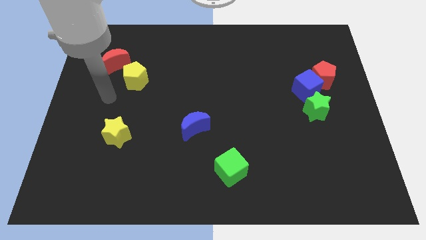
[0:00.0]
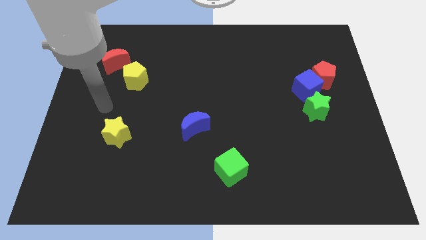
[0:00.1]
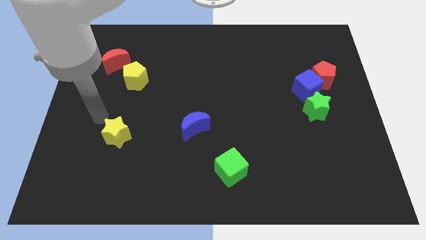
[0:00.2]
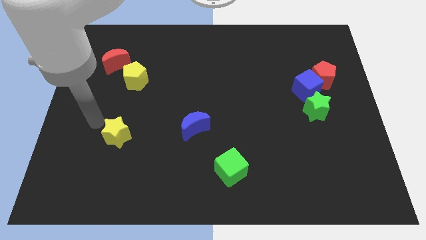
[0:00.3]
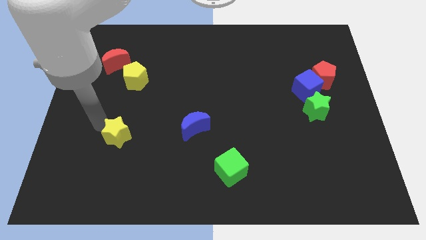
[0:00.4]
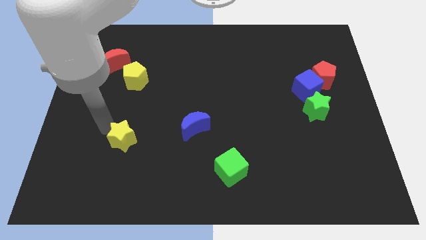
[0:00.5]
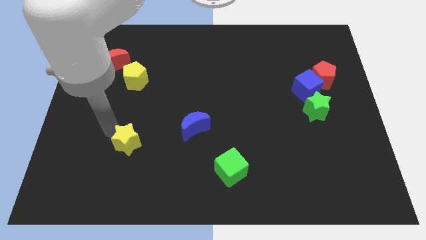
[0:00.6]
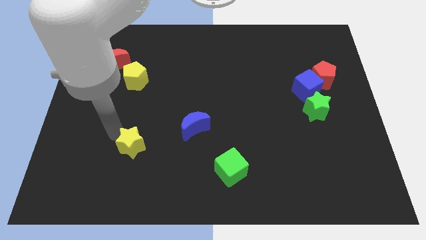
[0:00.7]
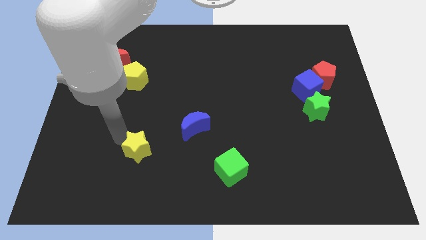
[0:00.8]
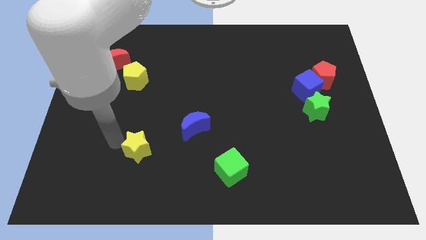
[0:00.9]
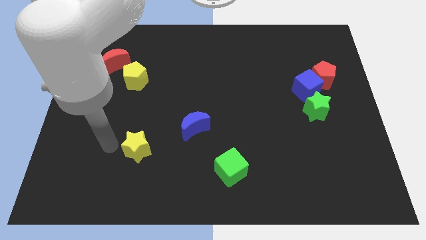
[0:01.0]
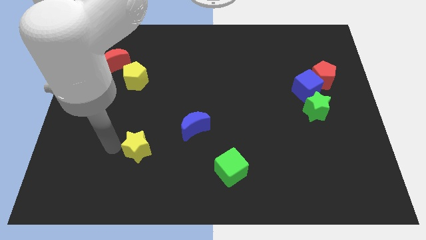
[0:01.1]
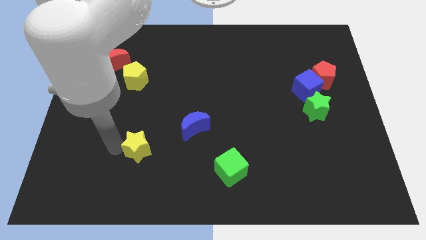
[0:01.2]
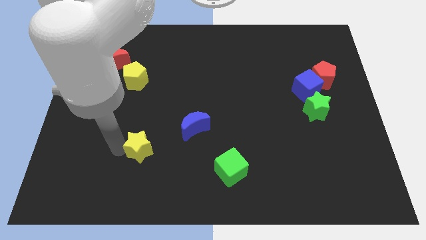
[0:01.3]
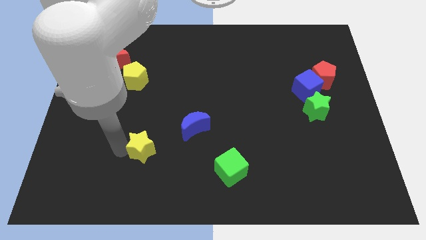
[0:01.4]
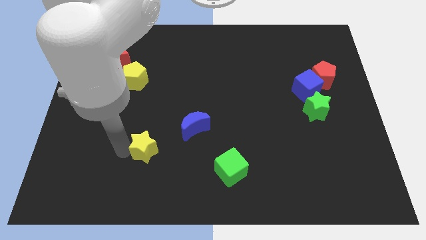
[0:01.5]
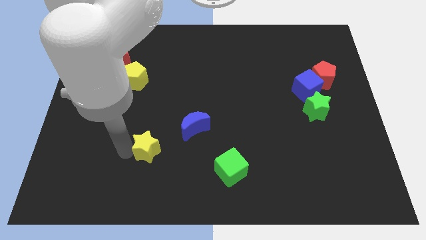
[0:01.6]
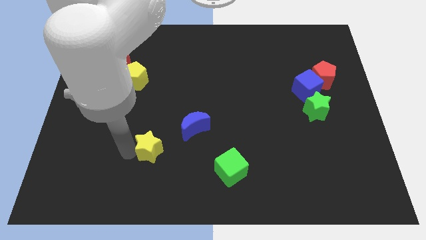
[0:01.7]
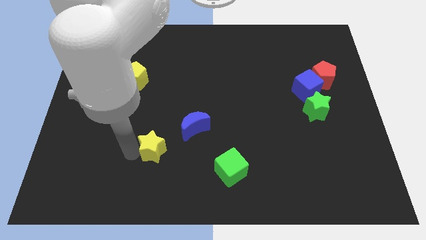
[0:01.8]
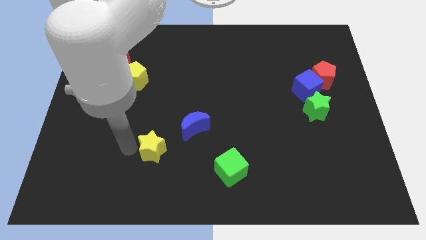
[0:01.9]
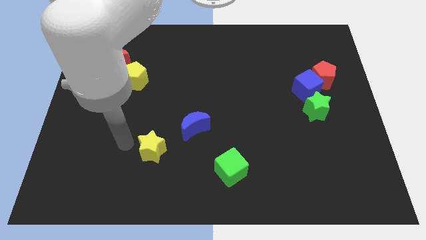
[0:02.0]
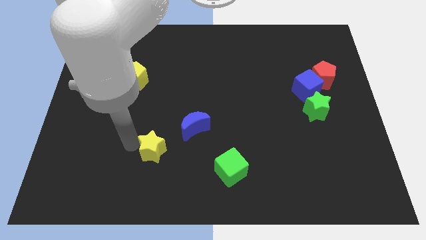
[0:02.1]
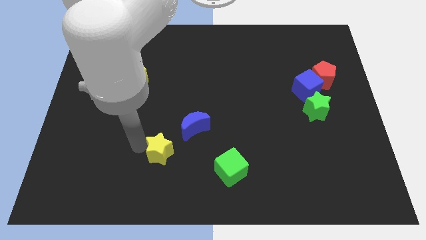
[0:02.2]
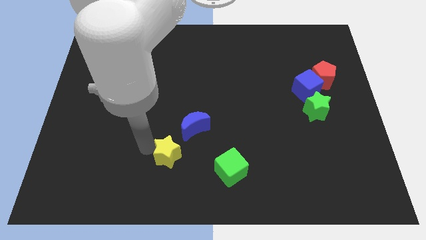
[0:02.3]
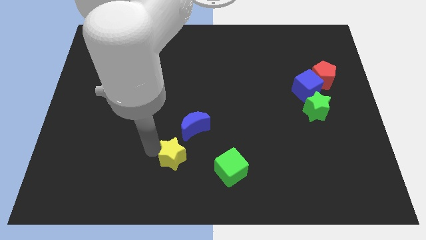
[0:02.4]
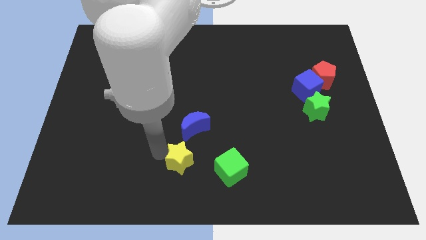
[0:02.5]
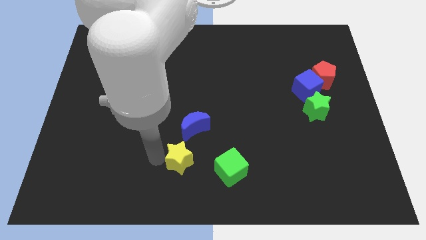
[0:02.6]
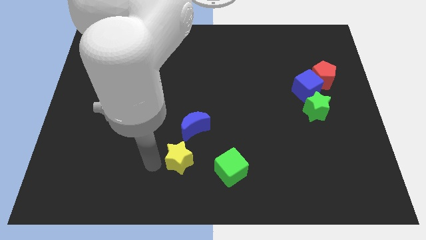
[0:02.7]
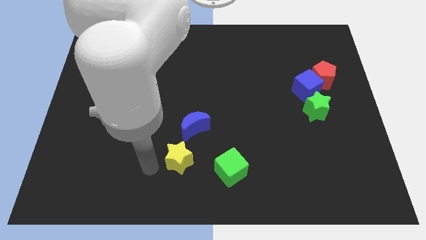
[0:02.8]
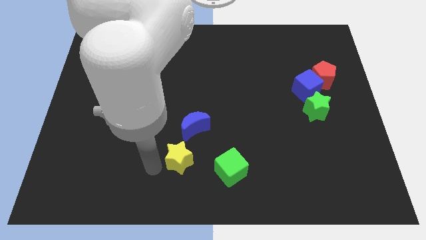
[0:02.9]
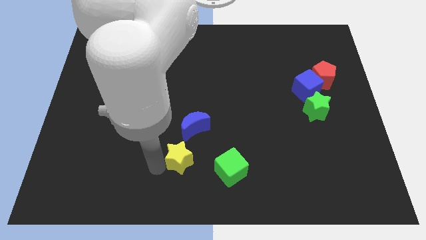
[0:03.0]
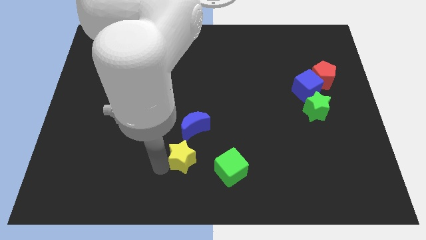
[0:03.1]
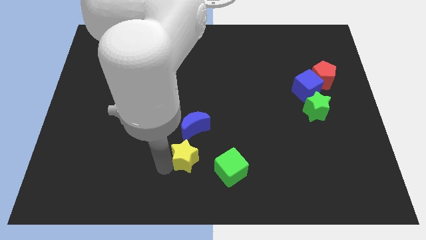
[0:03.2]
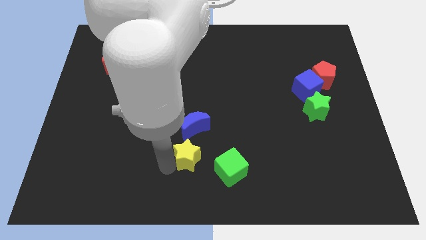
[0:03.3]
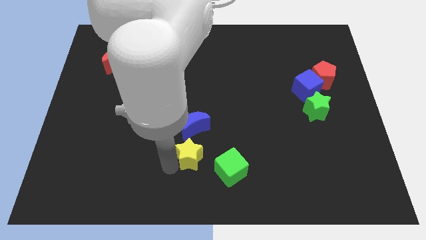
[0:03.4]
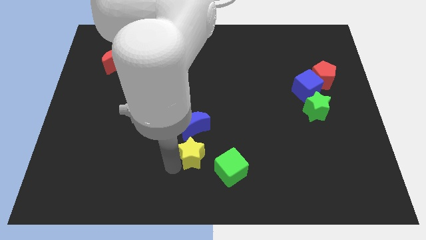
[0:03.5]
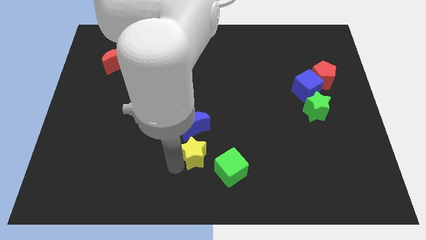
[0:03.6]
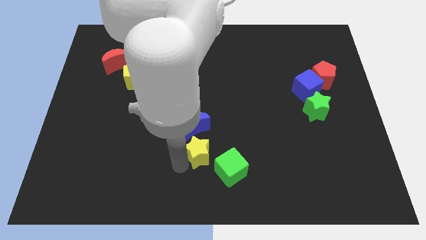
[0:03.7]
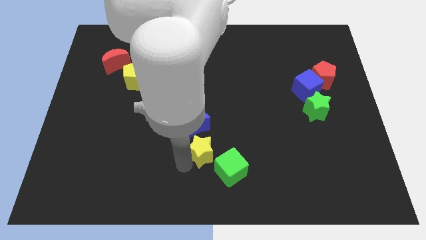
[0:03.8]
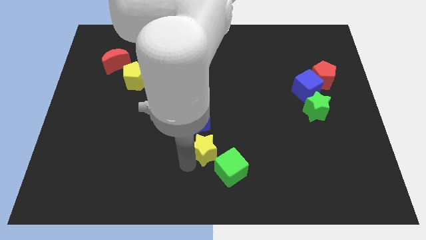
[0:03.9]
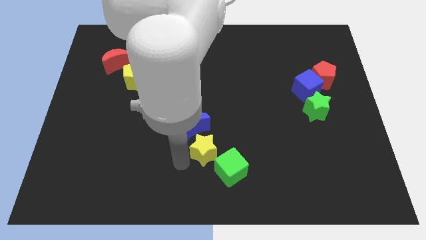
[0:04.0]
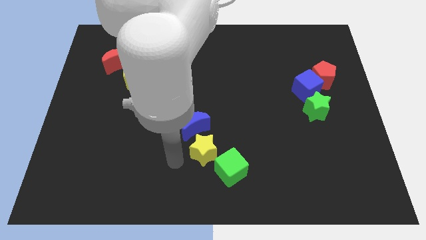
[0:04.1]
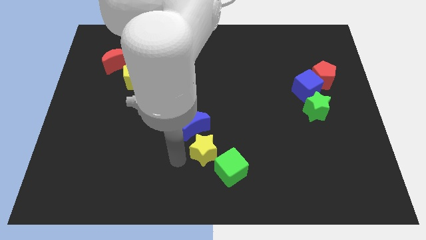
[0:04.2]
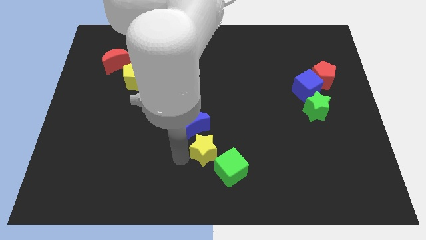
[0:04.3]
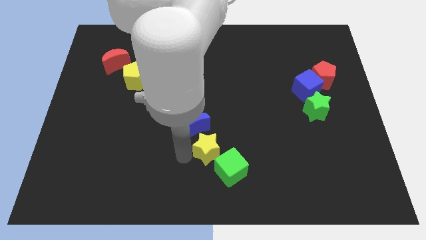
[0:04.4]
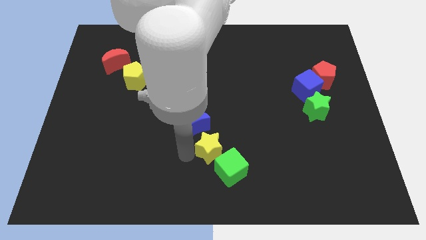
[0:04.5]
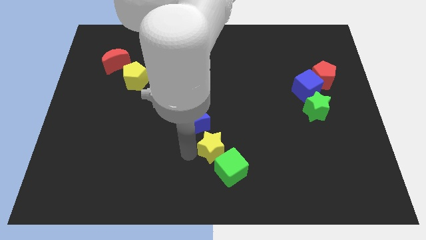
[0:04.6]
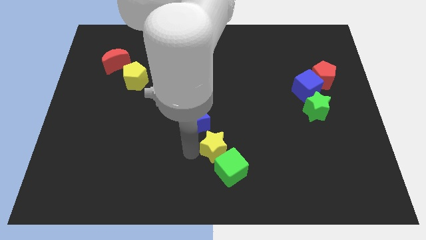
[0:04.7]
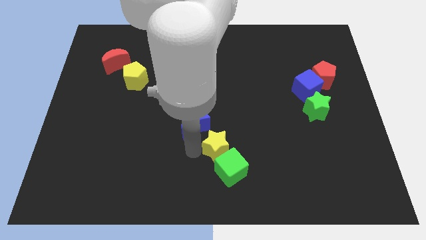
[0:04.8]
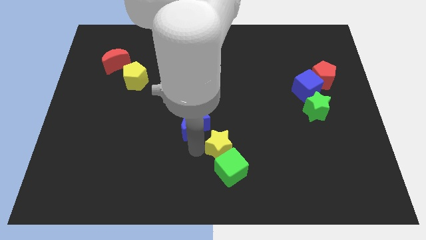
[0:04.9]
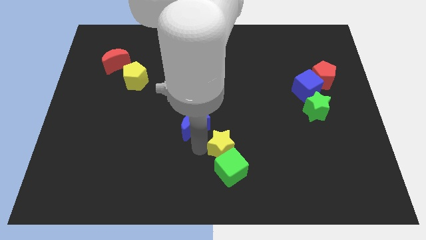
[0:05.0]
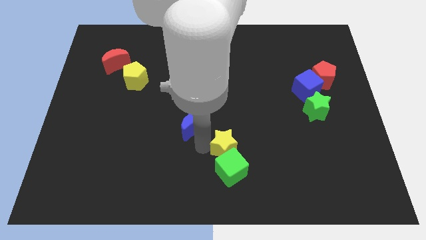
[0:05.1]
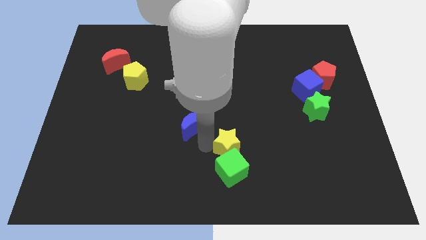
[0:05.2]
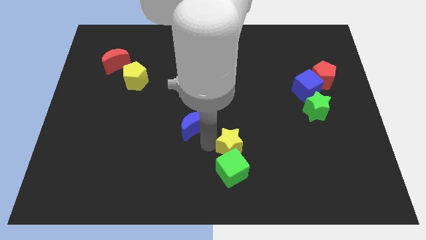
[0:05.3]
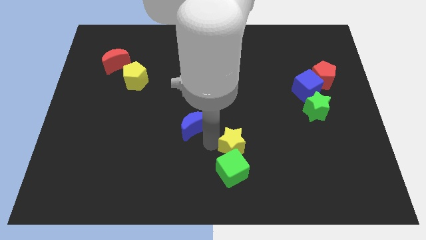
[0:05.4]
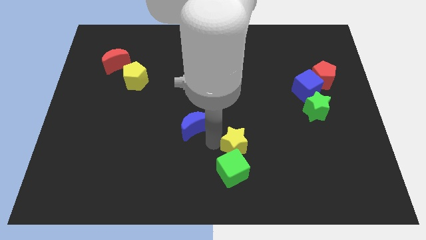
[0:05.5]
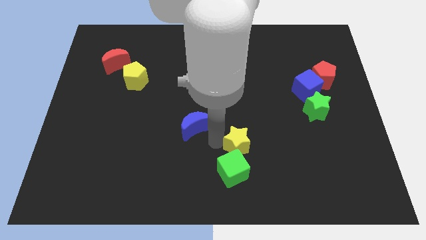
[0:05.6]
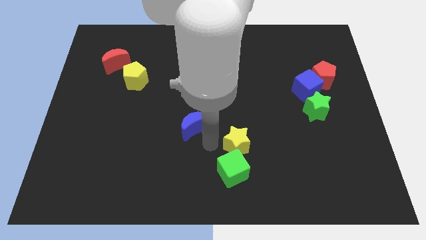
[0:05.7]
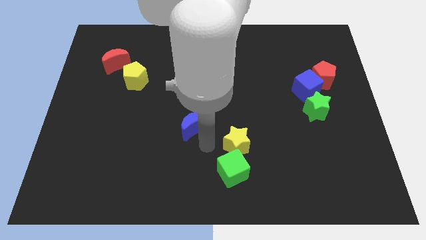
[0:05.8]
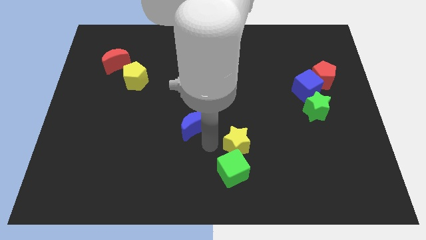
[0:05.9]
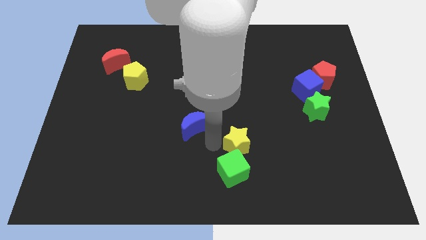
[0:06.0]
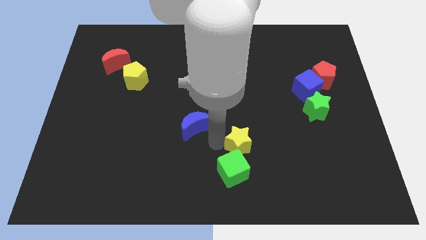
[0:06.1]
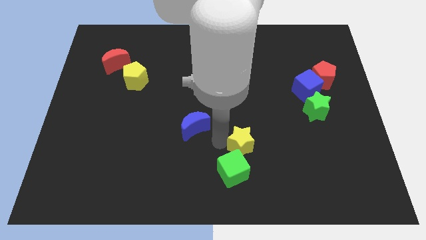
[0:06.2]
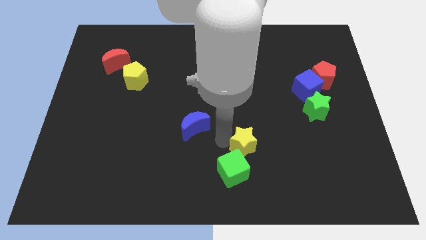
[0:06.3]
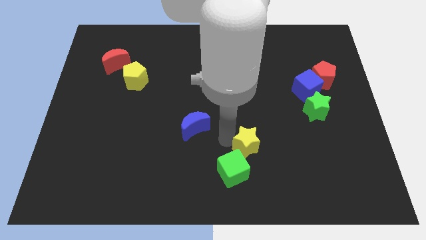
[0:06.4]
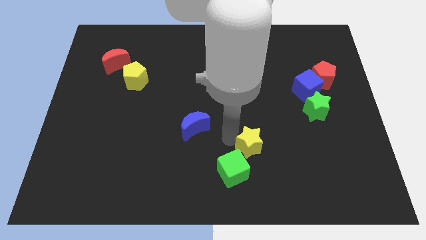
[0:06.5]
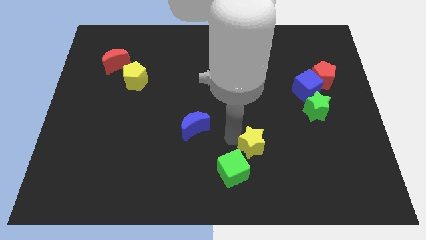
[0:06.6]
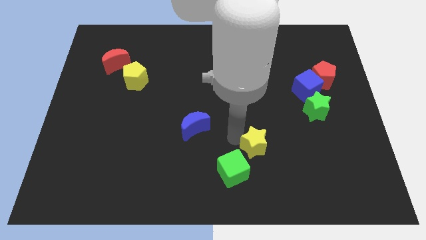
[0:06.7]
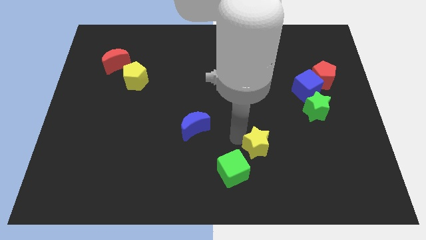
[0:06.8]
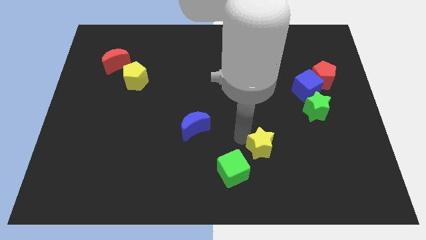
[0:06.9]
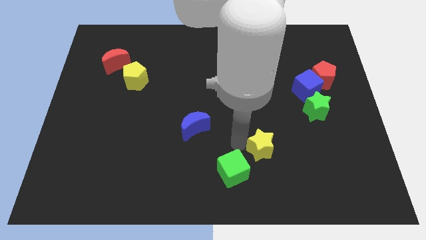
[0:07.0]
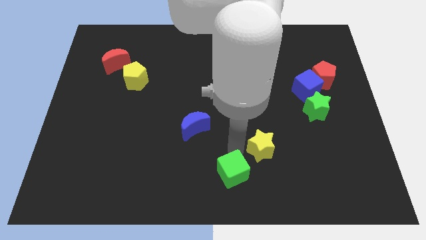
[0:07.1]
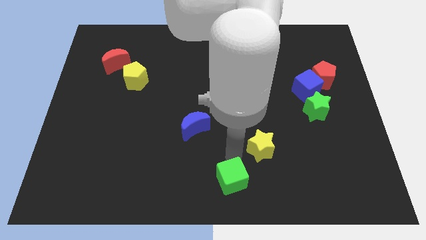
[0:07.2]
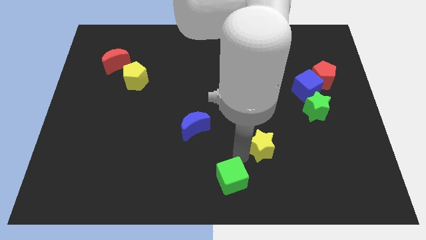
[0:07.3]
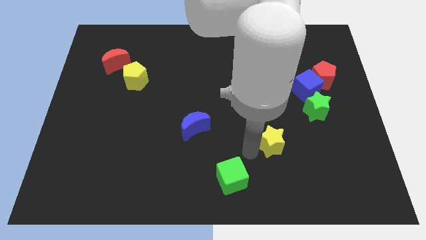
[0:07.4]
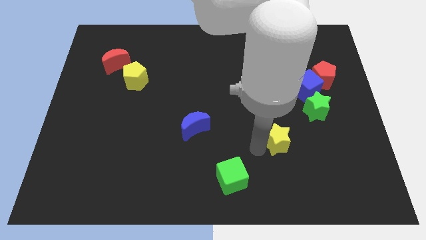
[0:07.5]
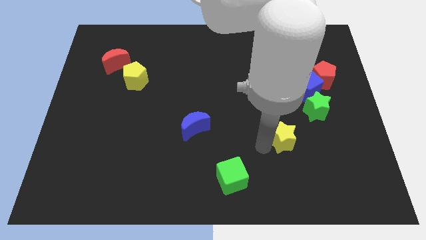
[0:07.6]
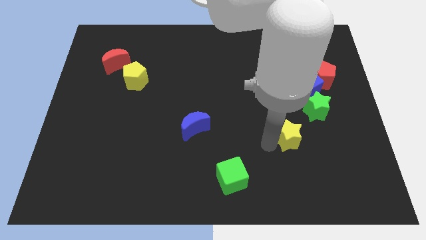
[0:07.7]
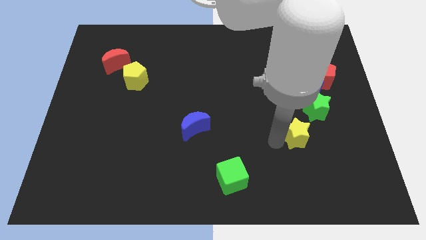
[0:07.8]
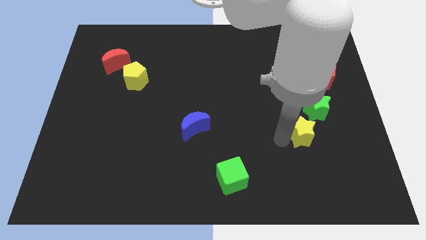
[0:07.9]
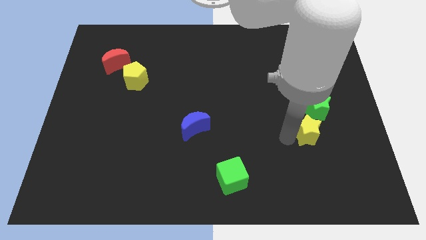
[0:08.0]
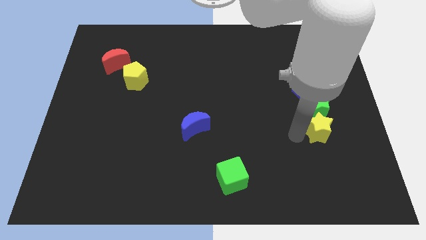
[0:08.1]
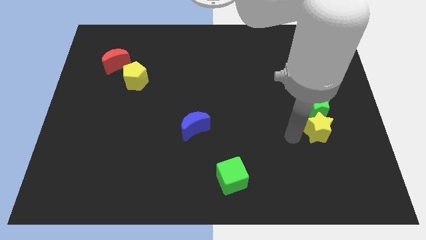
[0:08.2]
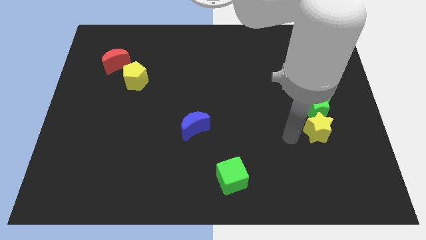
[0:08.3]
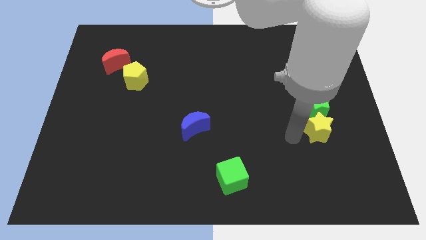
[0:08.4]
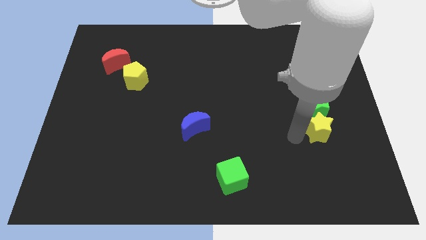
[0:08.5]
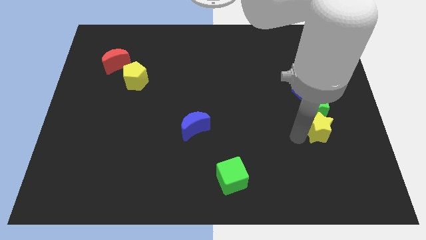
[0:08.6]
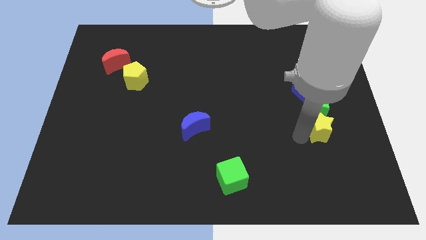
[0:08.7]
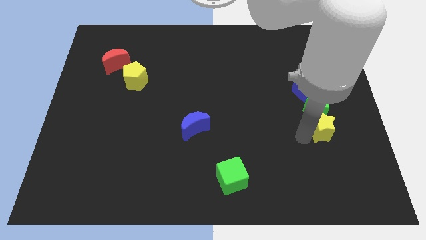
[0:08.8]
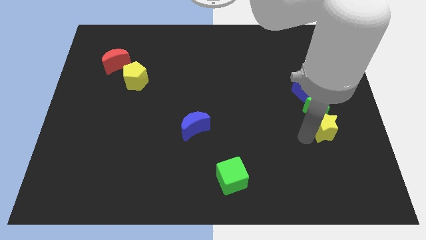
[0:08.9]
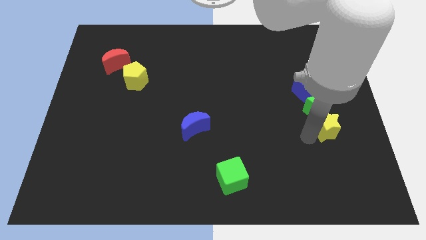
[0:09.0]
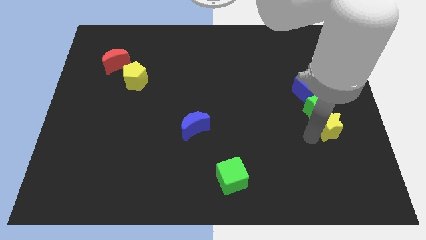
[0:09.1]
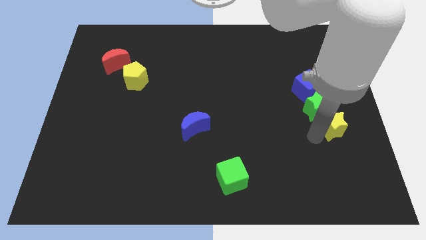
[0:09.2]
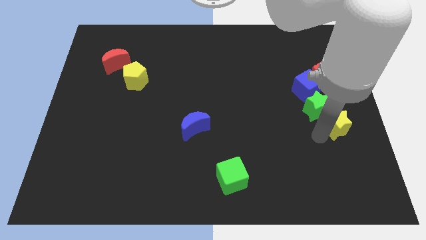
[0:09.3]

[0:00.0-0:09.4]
slide the yellow star to the center right
